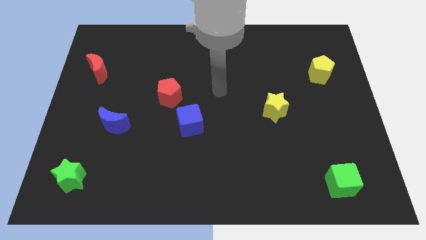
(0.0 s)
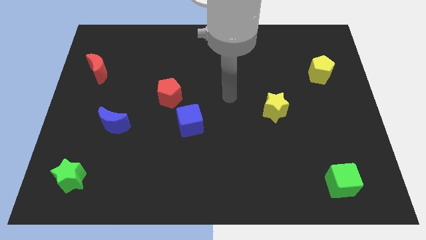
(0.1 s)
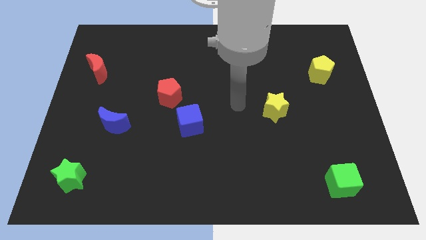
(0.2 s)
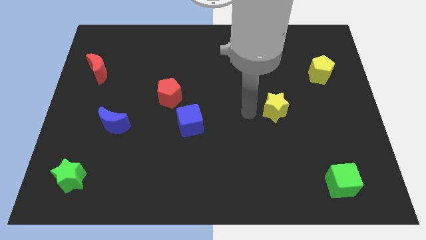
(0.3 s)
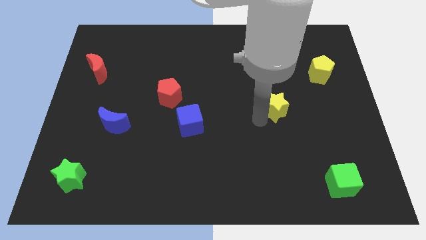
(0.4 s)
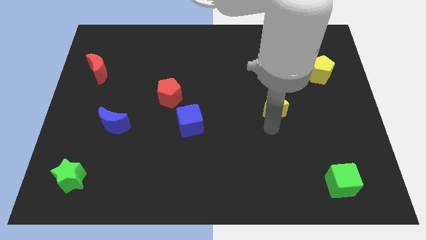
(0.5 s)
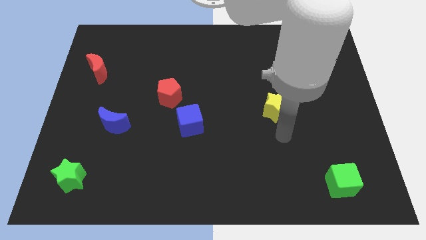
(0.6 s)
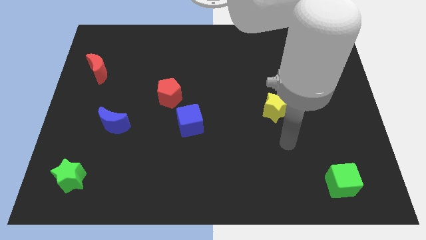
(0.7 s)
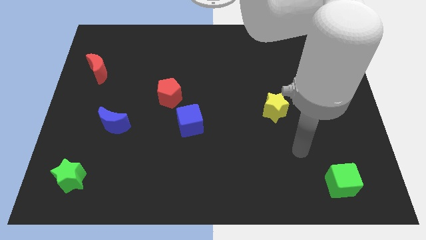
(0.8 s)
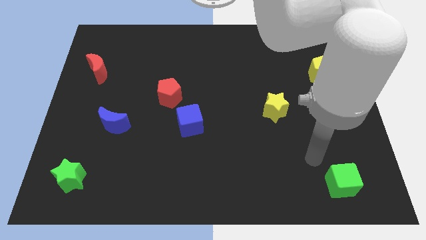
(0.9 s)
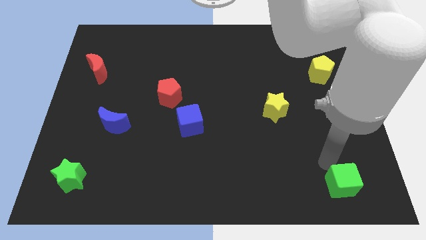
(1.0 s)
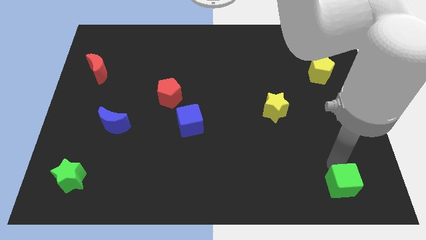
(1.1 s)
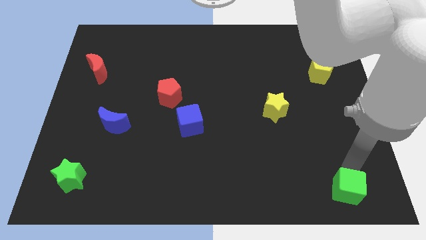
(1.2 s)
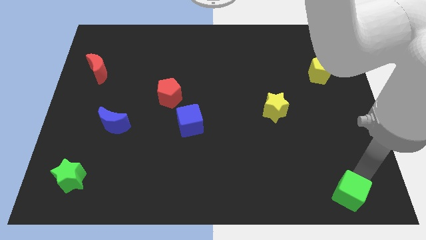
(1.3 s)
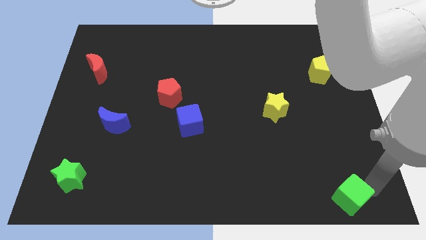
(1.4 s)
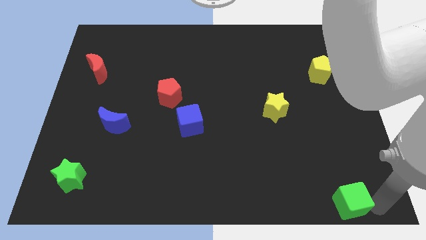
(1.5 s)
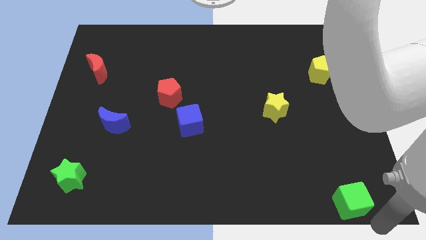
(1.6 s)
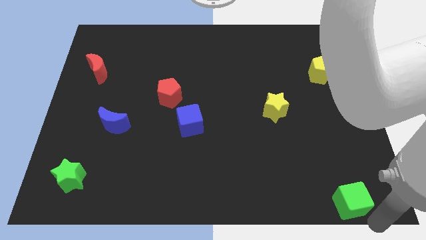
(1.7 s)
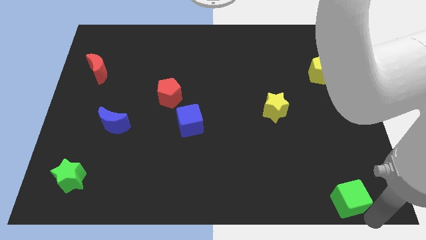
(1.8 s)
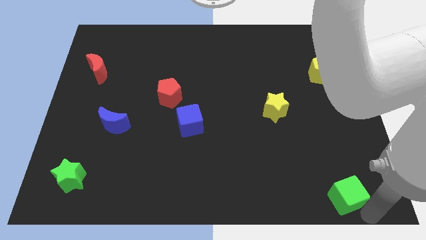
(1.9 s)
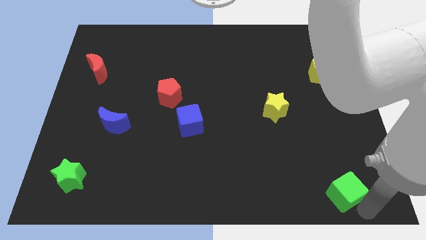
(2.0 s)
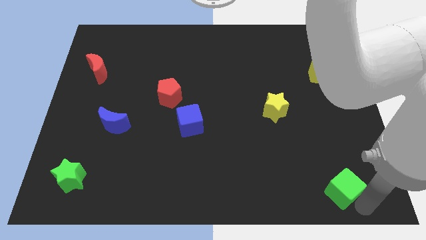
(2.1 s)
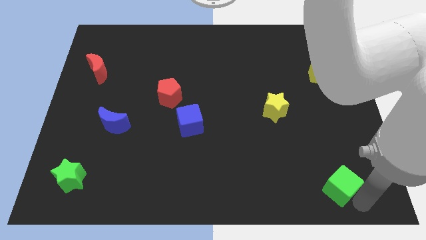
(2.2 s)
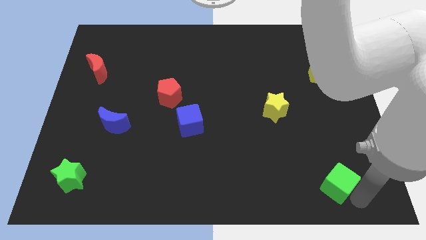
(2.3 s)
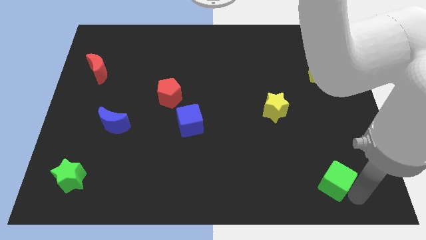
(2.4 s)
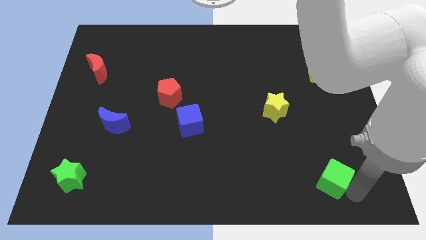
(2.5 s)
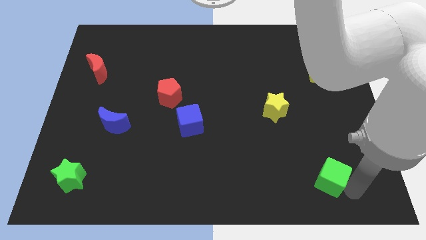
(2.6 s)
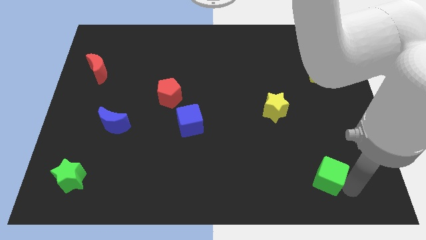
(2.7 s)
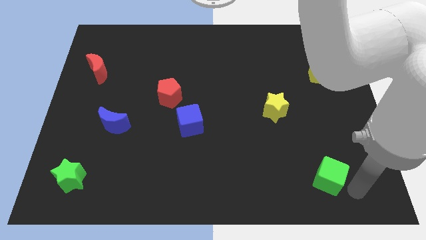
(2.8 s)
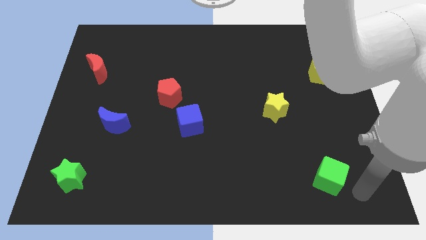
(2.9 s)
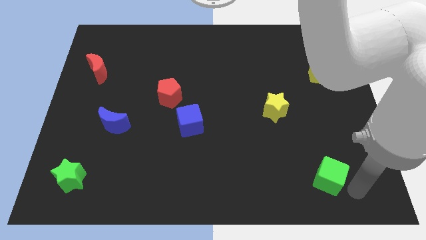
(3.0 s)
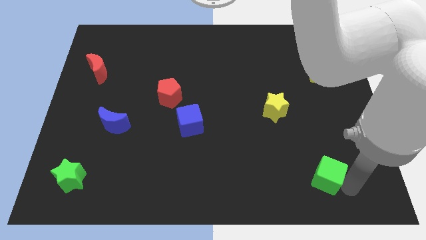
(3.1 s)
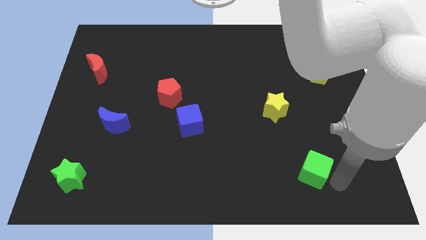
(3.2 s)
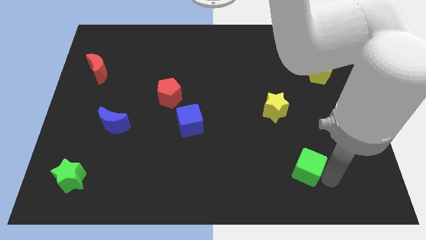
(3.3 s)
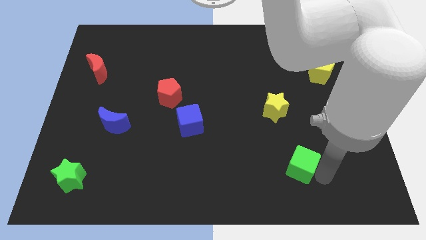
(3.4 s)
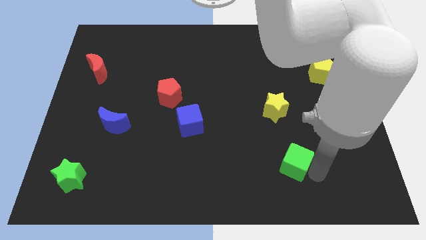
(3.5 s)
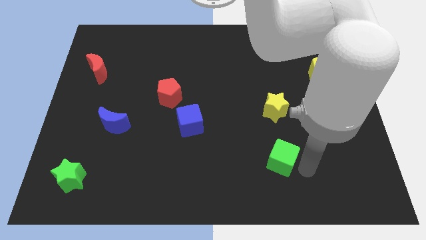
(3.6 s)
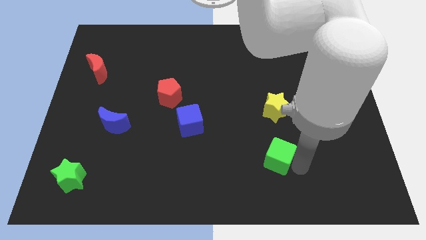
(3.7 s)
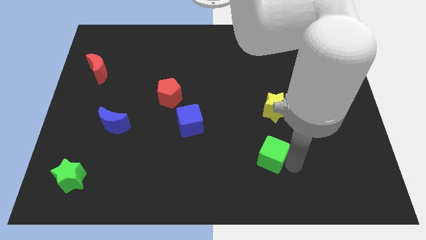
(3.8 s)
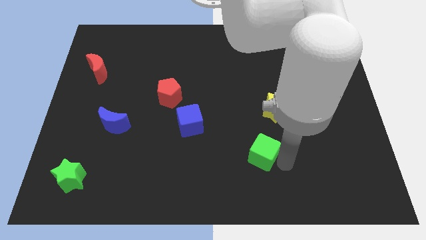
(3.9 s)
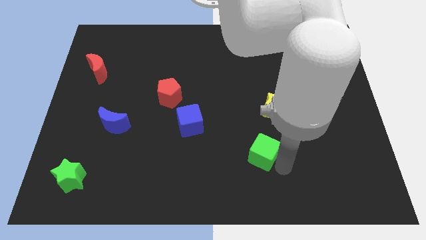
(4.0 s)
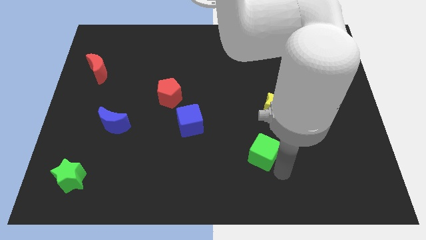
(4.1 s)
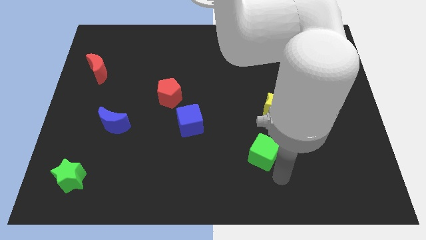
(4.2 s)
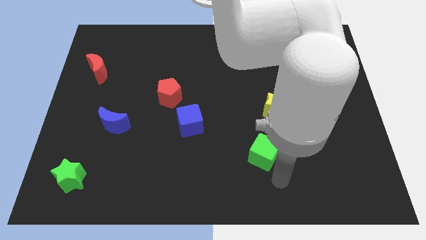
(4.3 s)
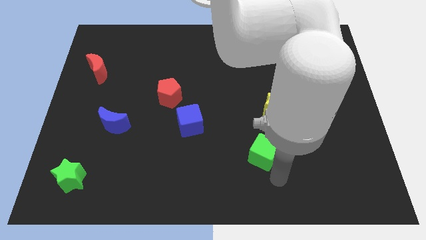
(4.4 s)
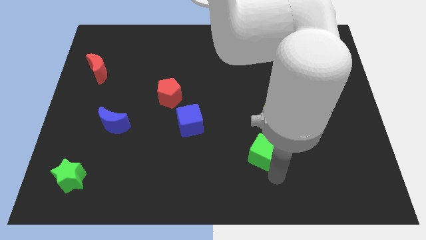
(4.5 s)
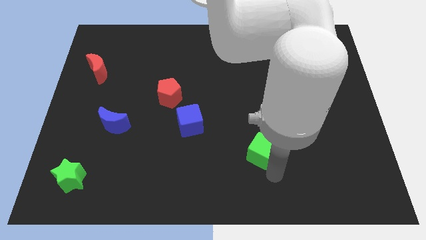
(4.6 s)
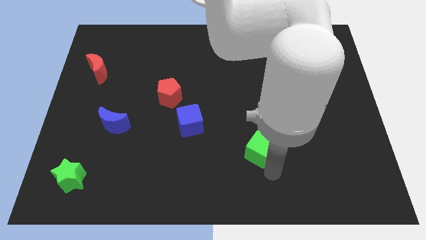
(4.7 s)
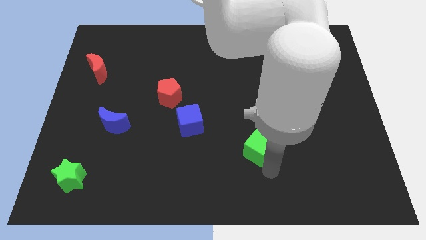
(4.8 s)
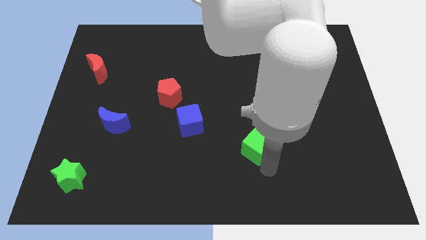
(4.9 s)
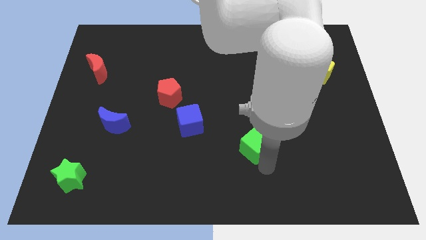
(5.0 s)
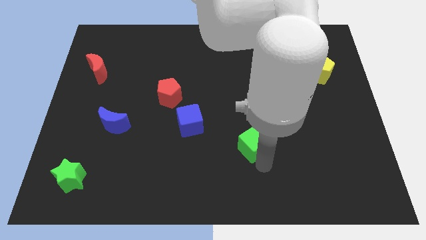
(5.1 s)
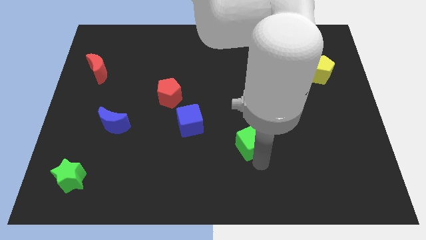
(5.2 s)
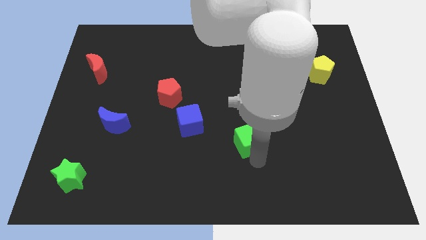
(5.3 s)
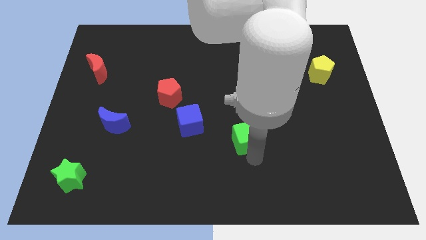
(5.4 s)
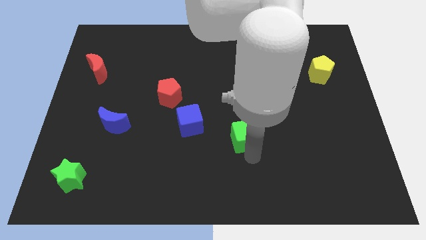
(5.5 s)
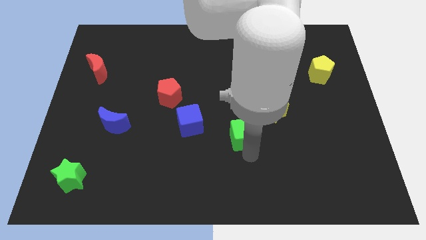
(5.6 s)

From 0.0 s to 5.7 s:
slide the green cube upwards and left

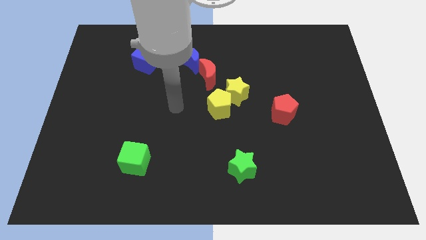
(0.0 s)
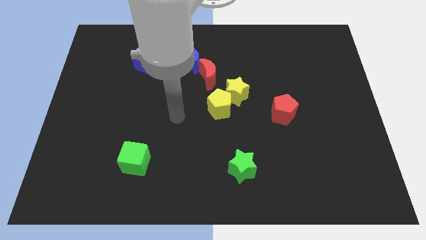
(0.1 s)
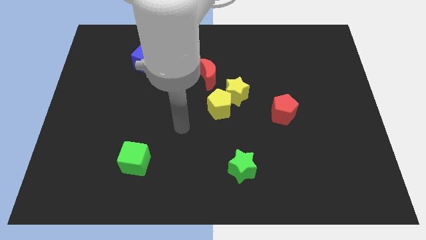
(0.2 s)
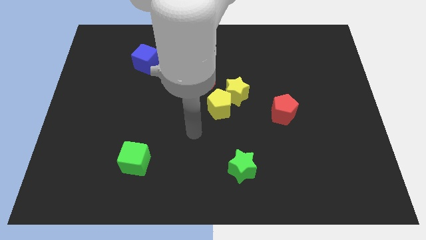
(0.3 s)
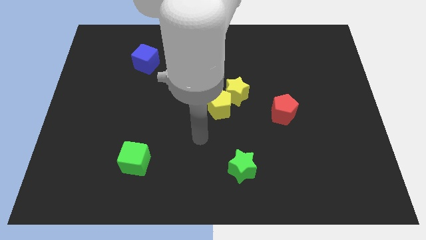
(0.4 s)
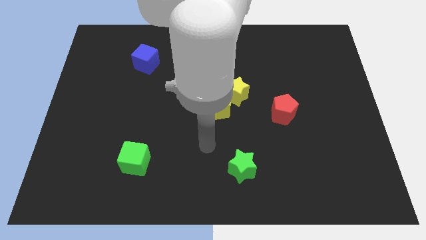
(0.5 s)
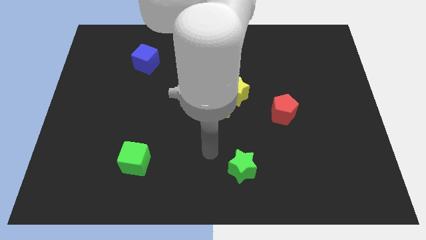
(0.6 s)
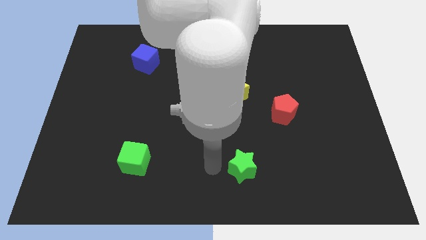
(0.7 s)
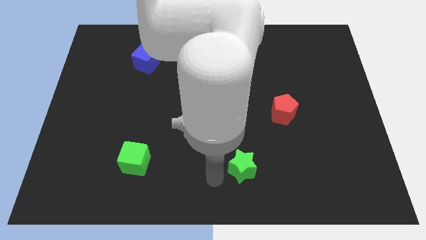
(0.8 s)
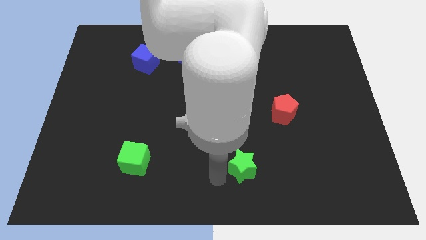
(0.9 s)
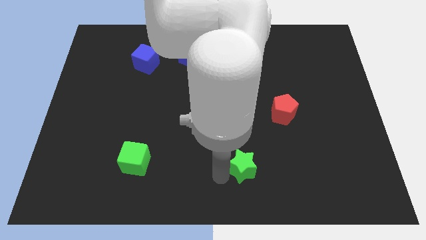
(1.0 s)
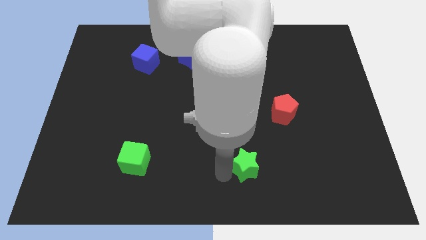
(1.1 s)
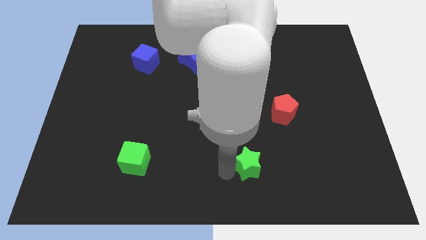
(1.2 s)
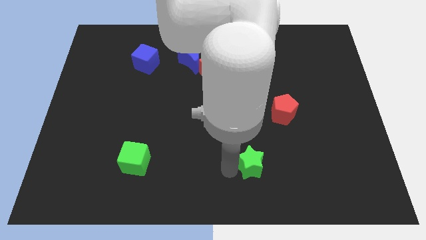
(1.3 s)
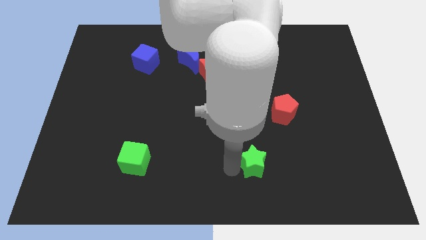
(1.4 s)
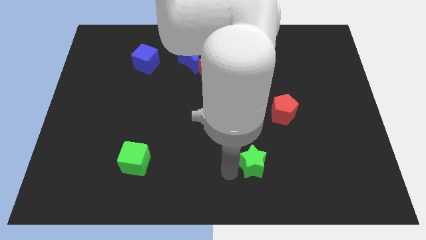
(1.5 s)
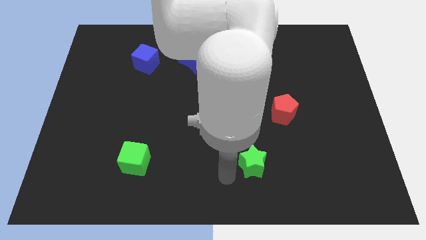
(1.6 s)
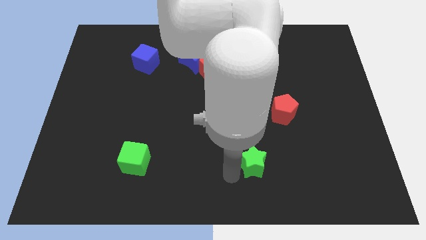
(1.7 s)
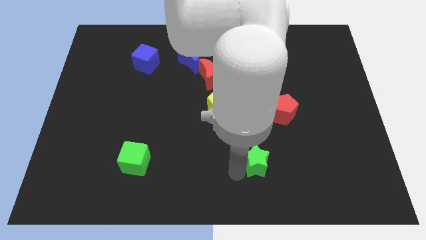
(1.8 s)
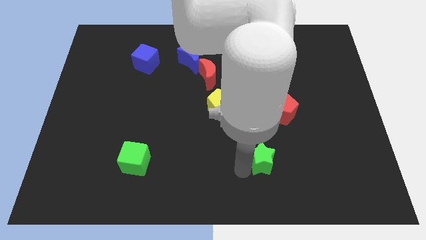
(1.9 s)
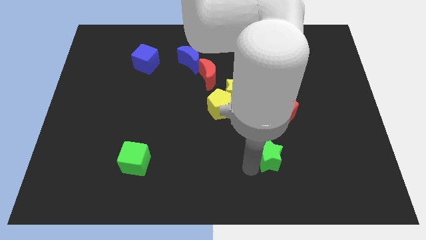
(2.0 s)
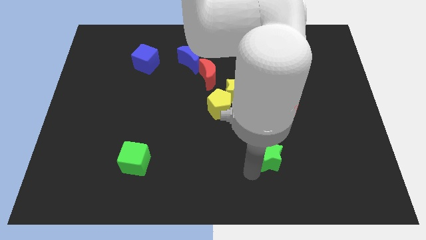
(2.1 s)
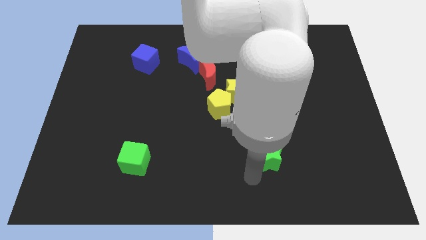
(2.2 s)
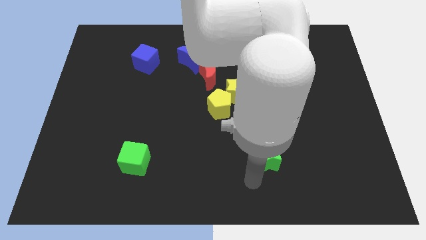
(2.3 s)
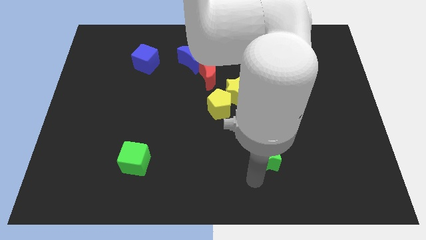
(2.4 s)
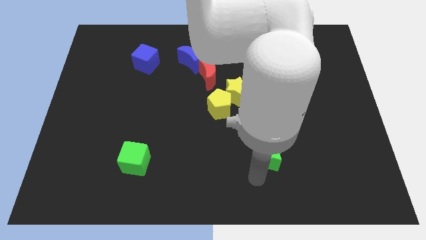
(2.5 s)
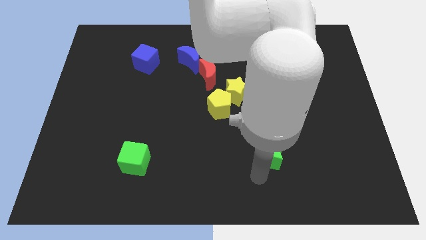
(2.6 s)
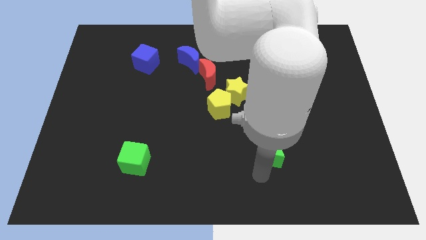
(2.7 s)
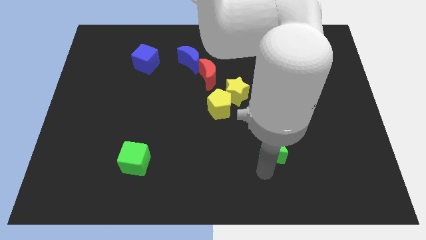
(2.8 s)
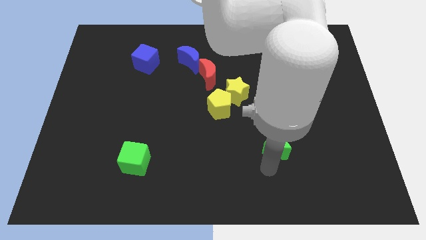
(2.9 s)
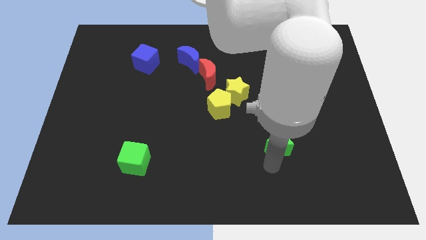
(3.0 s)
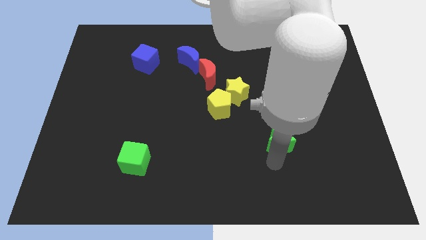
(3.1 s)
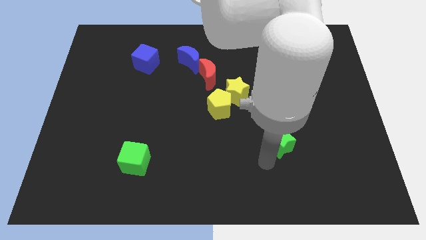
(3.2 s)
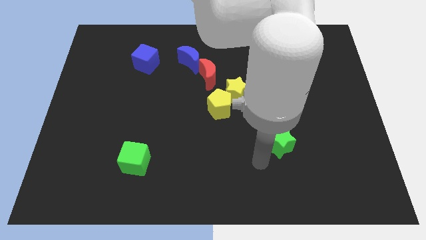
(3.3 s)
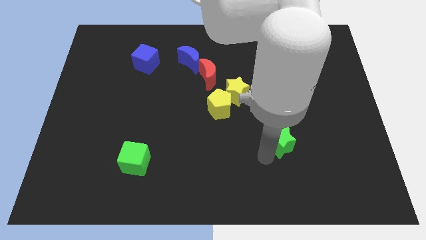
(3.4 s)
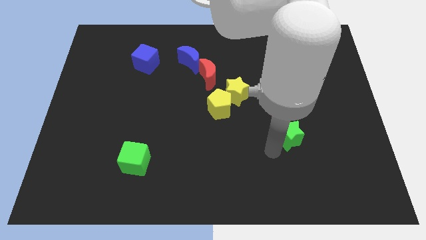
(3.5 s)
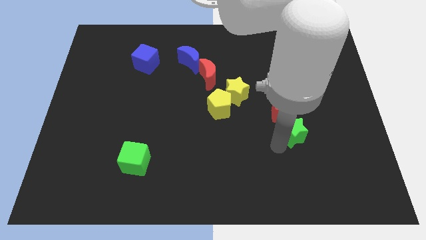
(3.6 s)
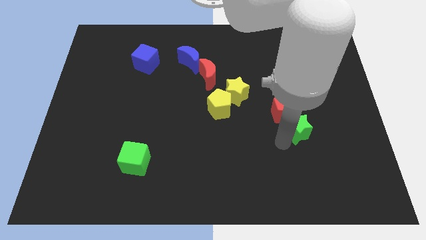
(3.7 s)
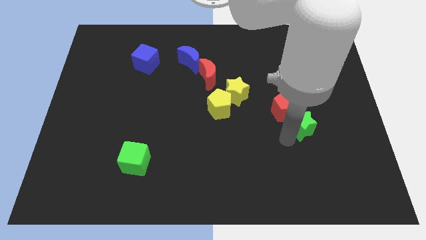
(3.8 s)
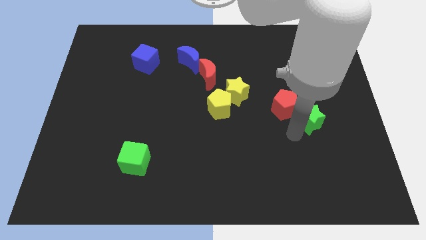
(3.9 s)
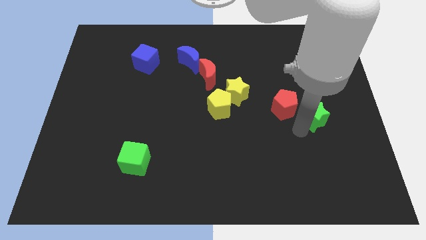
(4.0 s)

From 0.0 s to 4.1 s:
push the green star upwards and to the right
